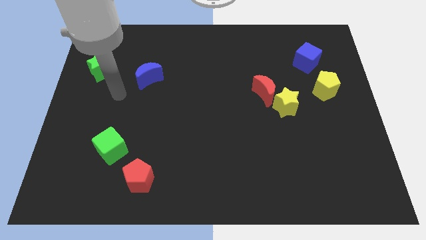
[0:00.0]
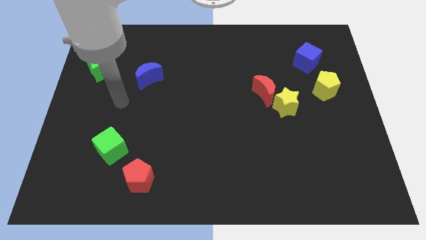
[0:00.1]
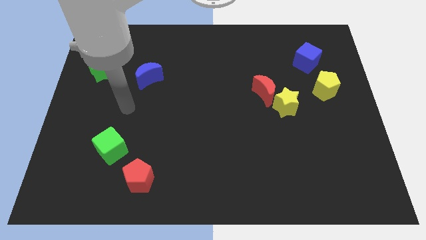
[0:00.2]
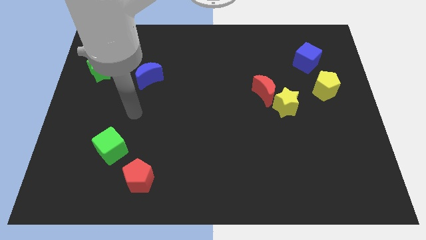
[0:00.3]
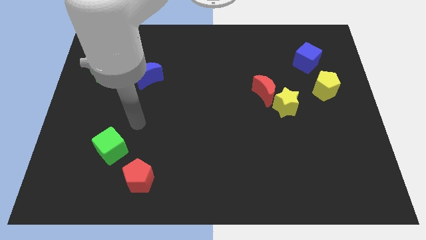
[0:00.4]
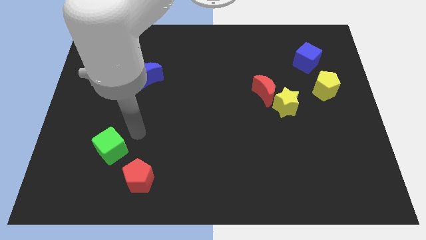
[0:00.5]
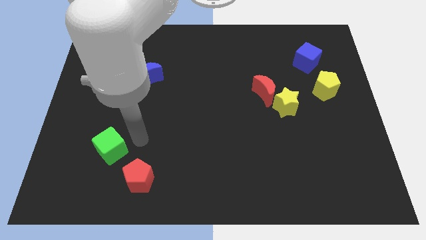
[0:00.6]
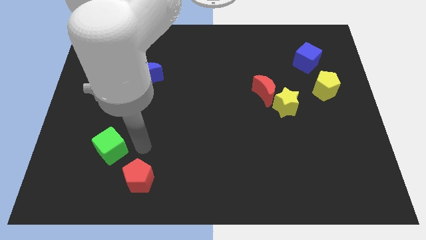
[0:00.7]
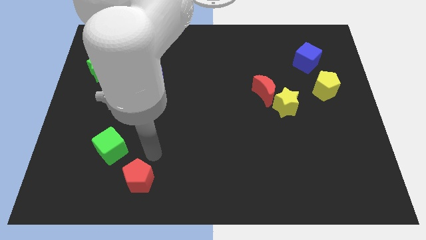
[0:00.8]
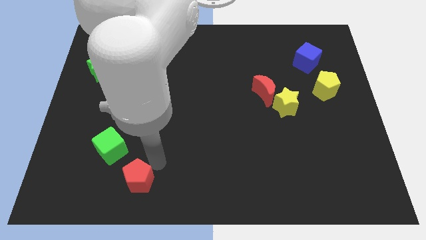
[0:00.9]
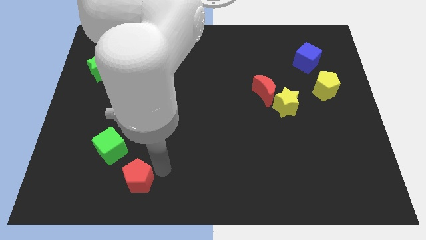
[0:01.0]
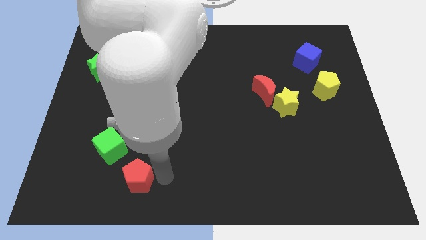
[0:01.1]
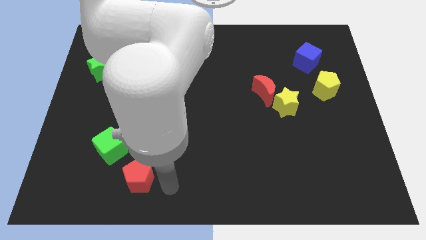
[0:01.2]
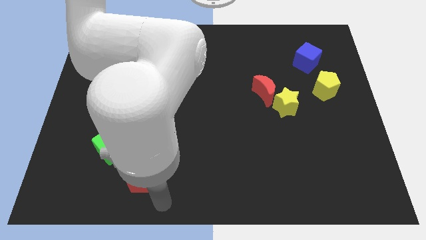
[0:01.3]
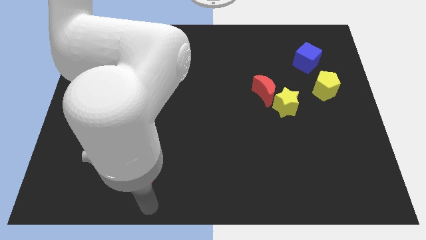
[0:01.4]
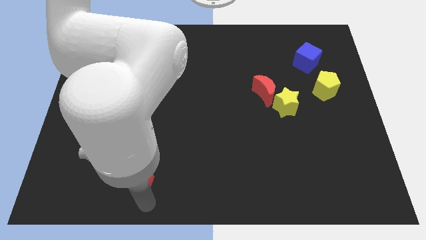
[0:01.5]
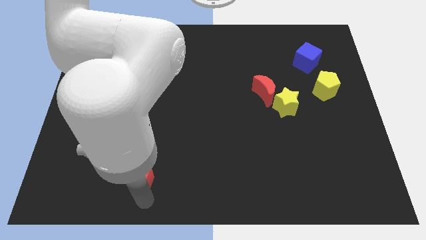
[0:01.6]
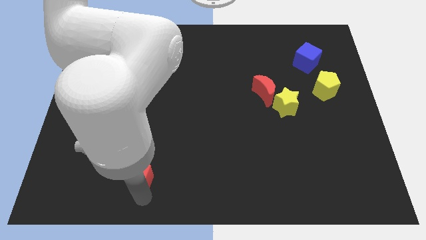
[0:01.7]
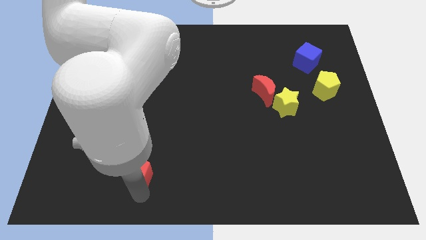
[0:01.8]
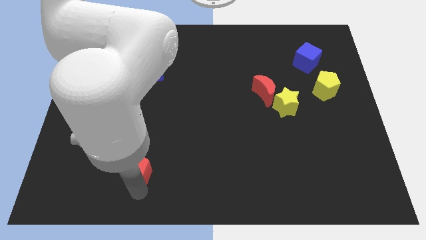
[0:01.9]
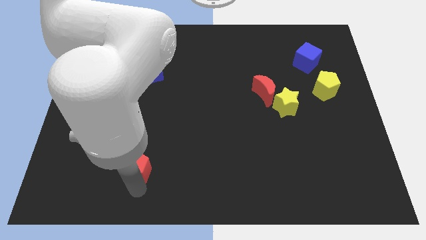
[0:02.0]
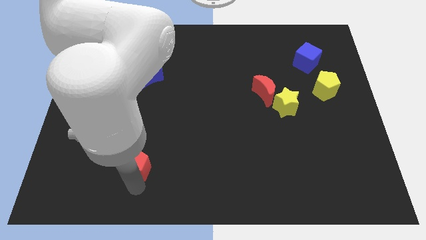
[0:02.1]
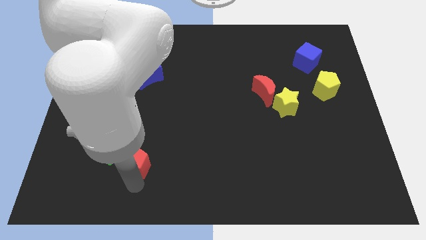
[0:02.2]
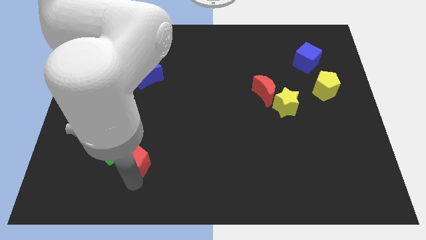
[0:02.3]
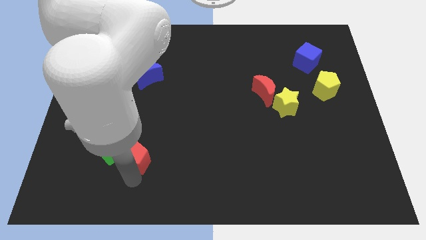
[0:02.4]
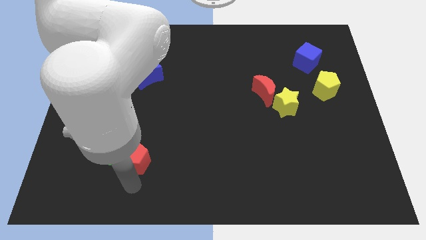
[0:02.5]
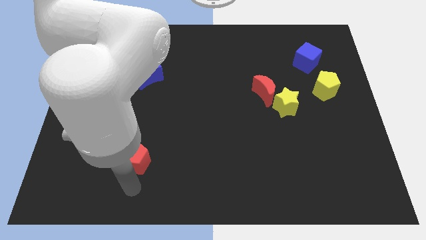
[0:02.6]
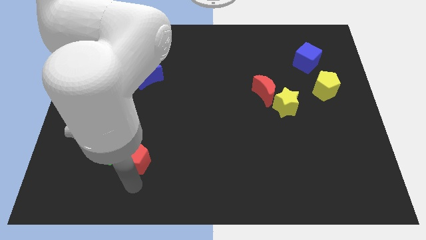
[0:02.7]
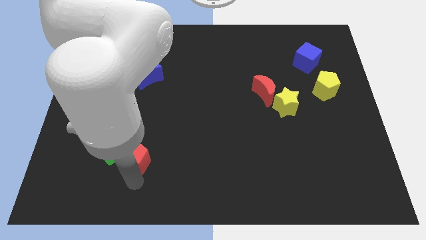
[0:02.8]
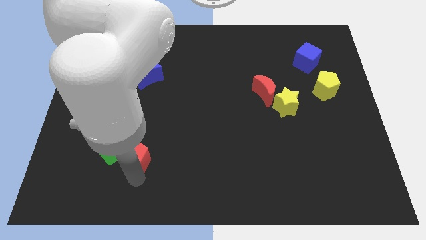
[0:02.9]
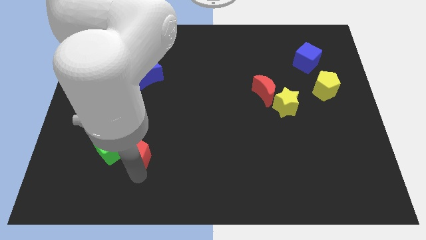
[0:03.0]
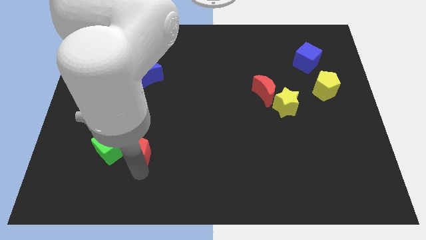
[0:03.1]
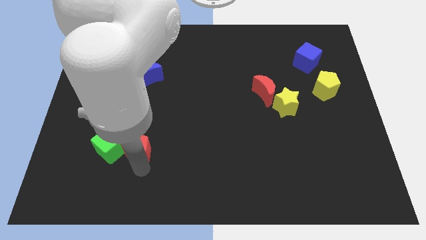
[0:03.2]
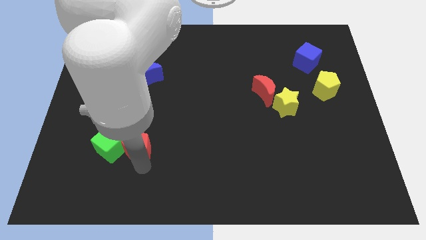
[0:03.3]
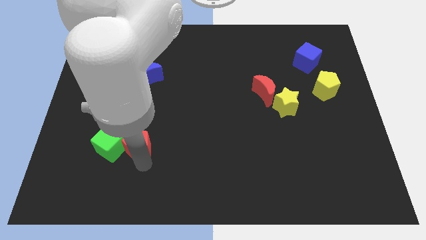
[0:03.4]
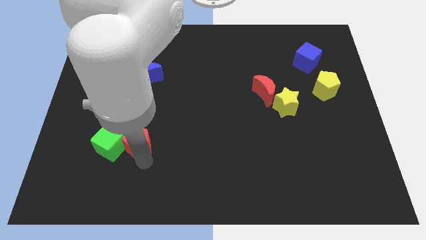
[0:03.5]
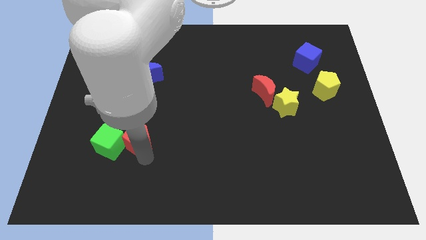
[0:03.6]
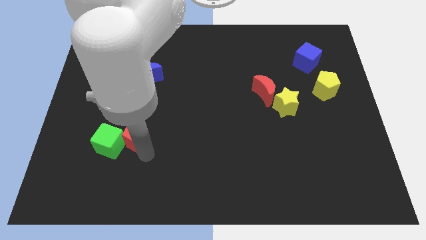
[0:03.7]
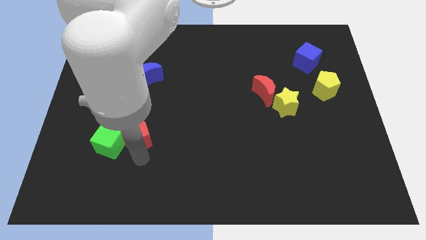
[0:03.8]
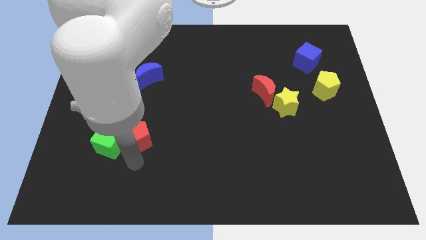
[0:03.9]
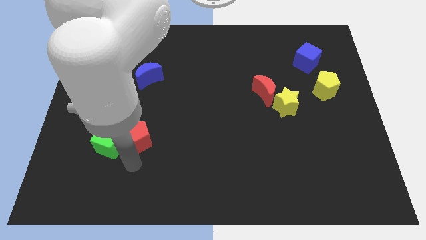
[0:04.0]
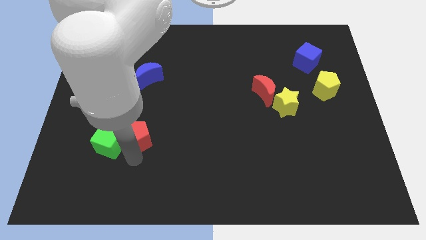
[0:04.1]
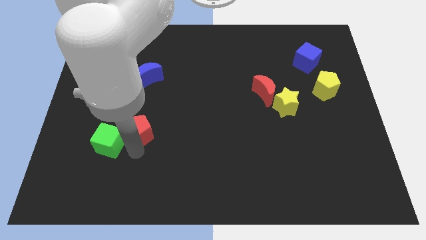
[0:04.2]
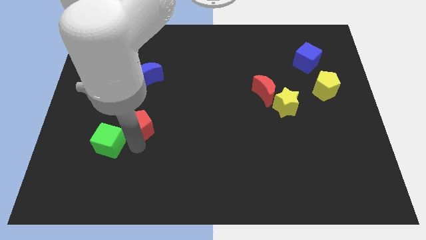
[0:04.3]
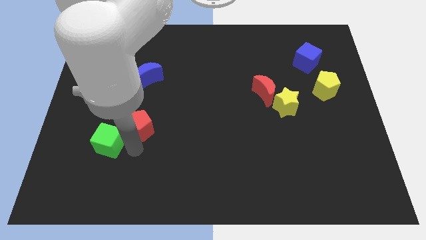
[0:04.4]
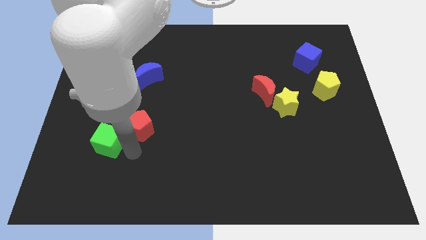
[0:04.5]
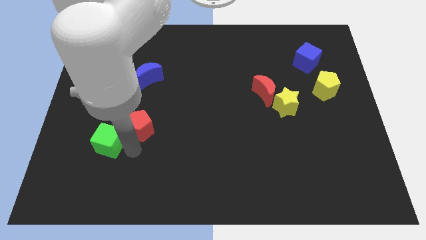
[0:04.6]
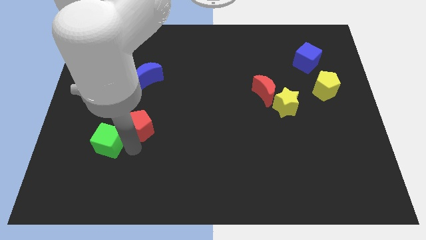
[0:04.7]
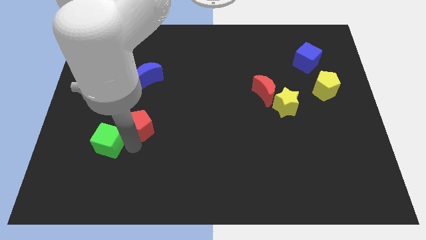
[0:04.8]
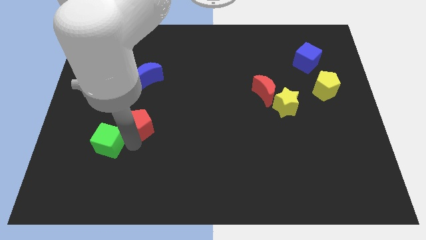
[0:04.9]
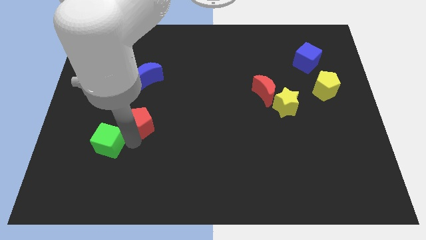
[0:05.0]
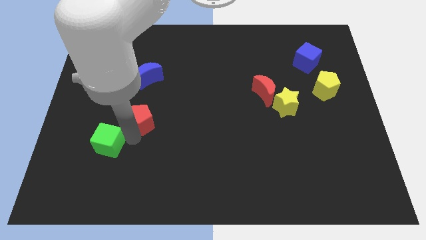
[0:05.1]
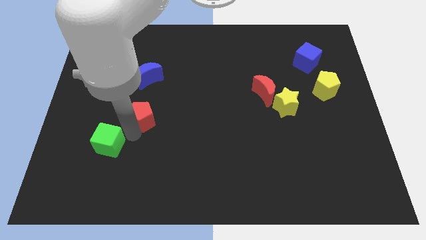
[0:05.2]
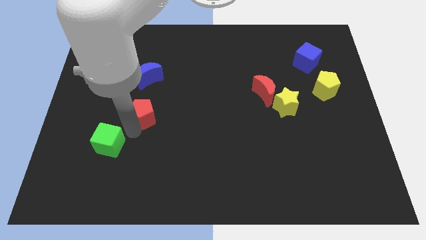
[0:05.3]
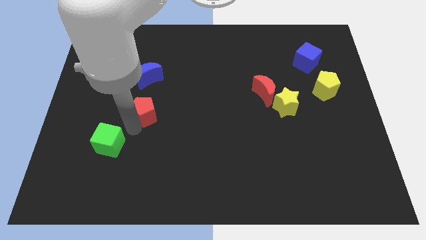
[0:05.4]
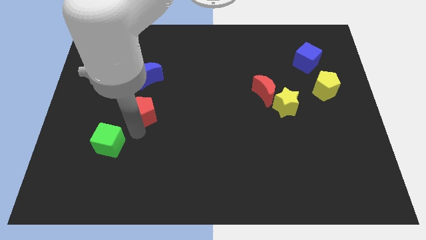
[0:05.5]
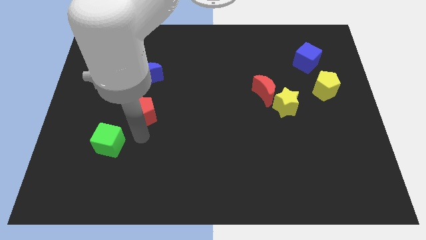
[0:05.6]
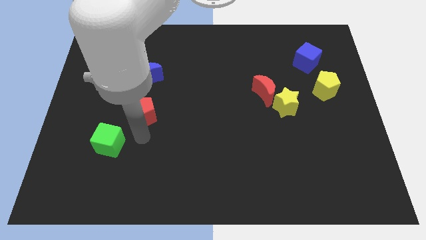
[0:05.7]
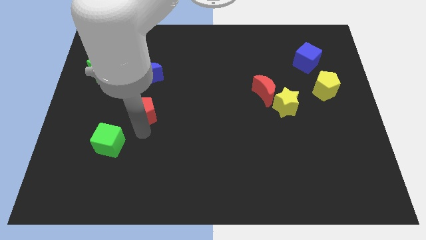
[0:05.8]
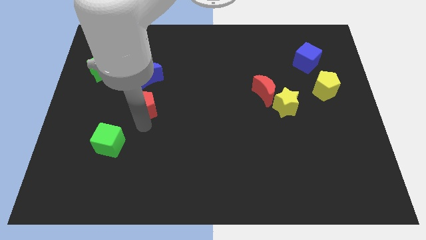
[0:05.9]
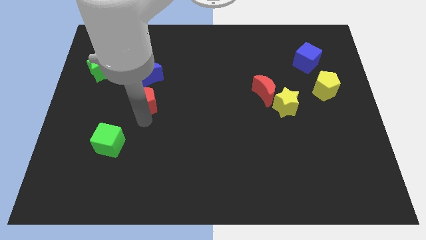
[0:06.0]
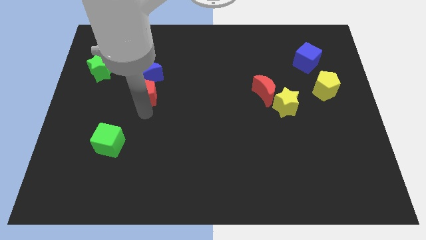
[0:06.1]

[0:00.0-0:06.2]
put the red pentagon next to the blue moon

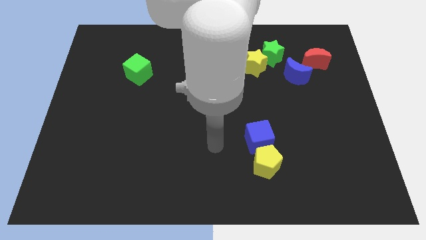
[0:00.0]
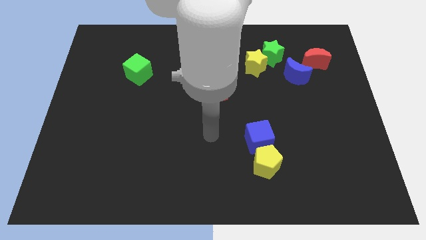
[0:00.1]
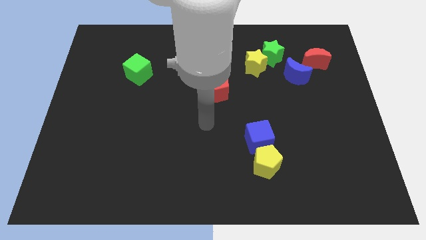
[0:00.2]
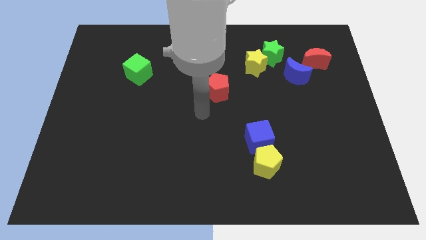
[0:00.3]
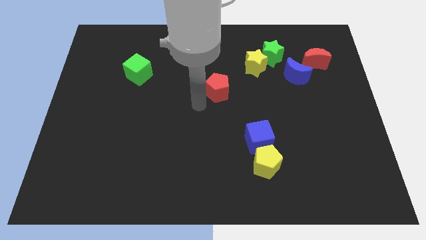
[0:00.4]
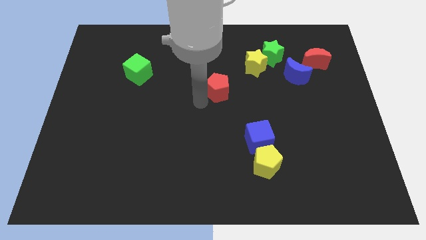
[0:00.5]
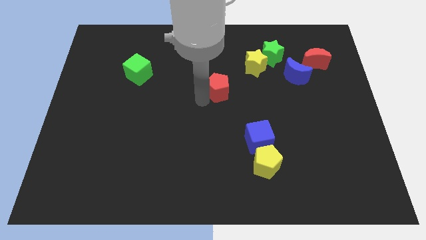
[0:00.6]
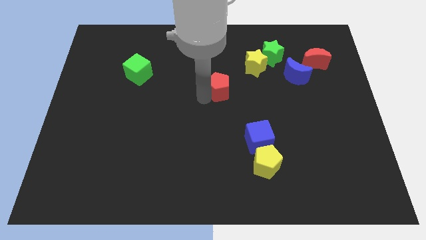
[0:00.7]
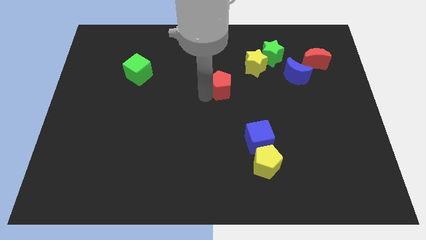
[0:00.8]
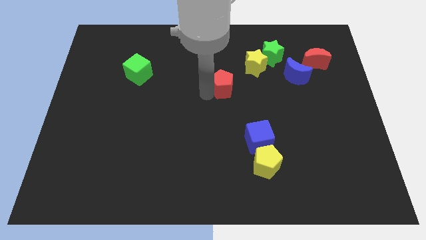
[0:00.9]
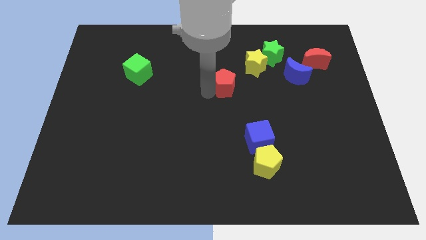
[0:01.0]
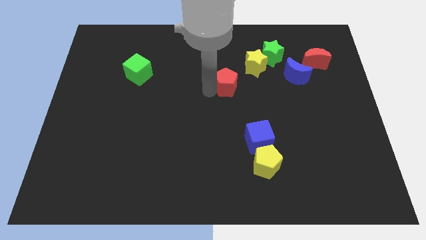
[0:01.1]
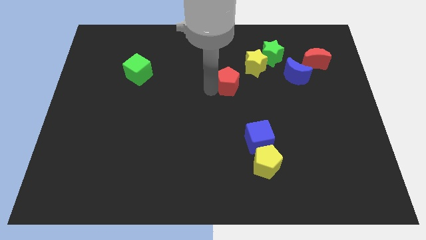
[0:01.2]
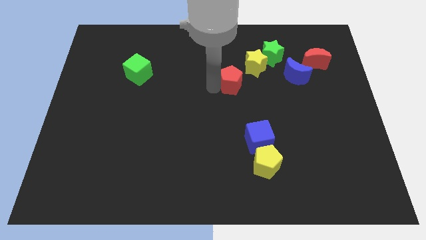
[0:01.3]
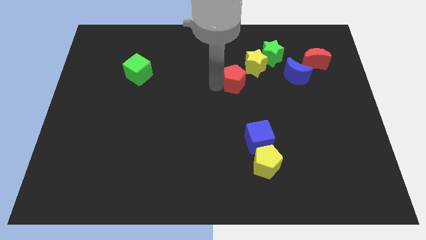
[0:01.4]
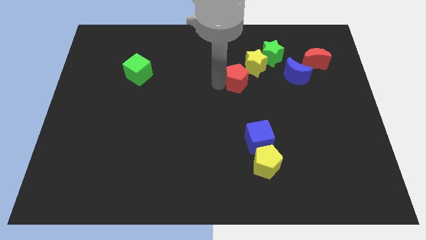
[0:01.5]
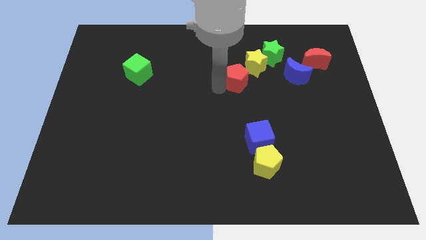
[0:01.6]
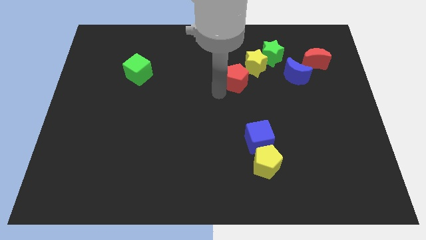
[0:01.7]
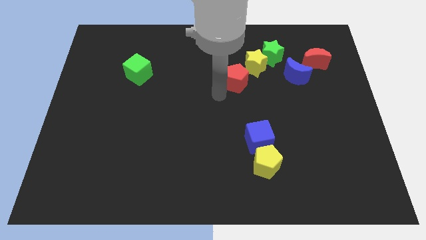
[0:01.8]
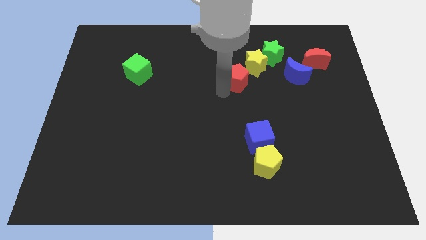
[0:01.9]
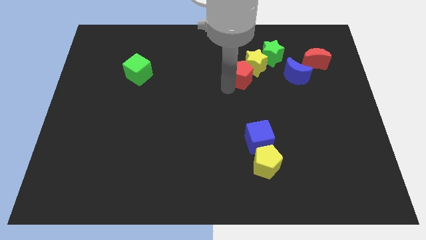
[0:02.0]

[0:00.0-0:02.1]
put the red pentagon next to the yellow star

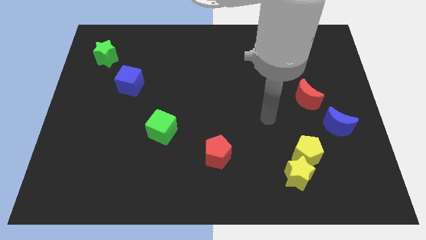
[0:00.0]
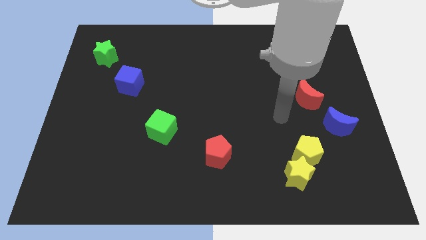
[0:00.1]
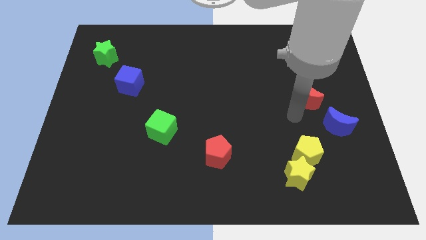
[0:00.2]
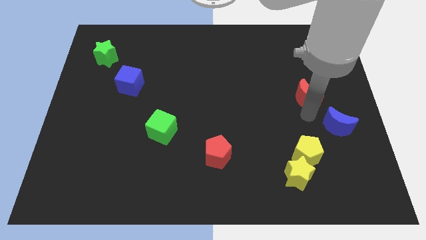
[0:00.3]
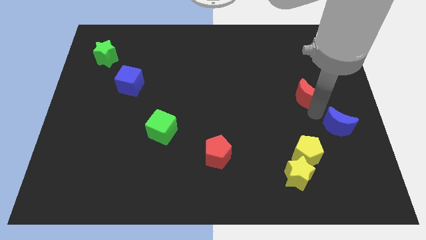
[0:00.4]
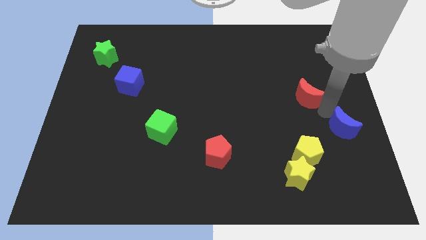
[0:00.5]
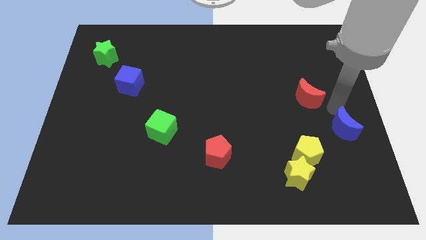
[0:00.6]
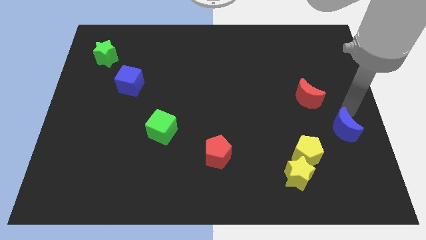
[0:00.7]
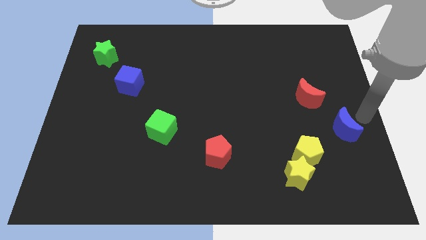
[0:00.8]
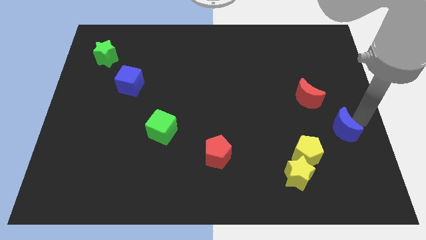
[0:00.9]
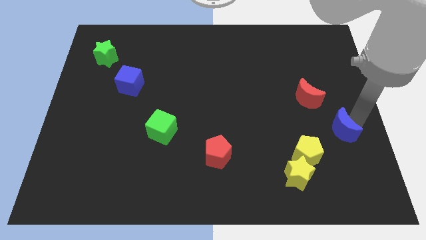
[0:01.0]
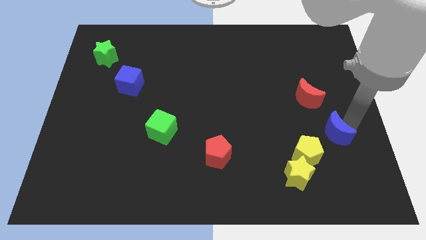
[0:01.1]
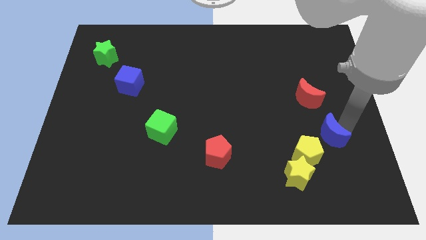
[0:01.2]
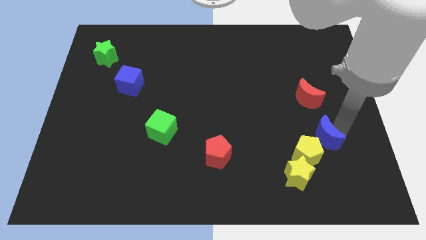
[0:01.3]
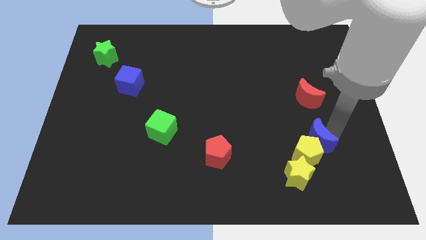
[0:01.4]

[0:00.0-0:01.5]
slide the blue moon towards the yellow pentagon
